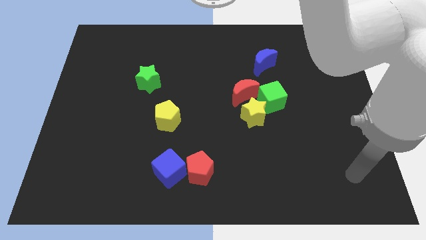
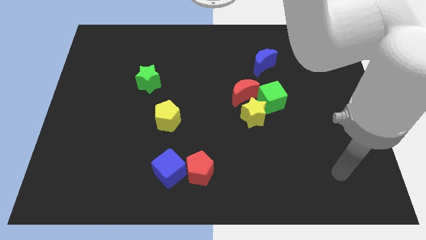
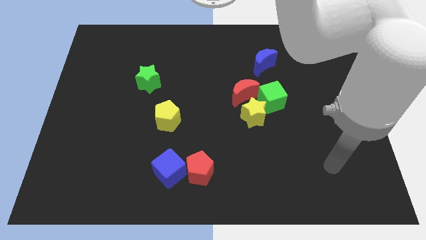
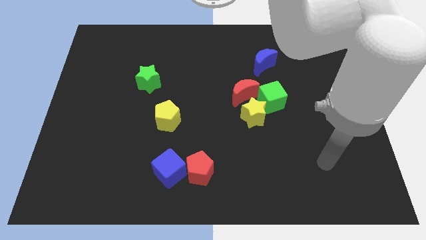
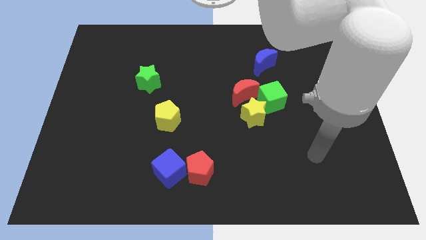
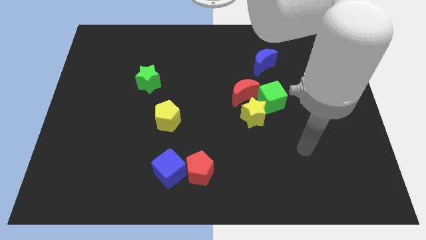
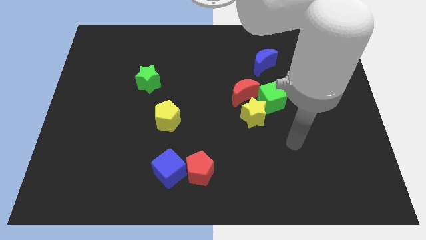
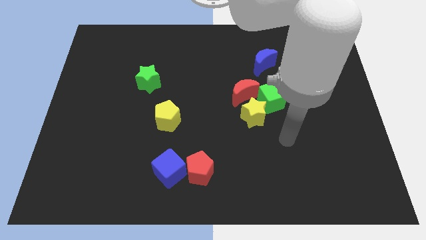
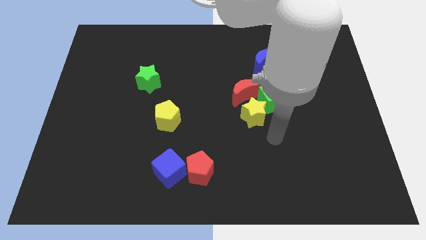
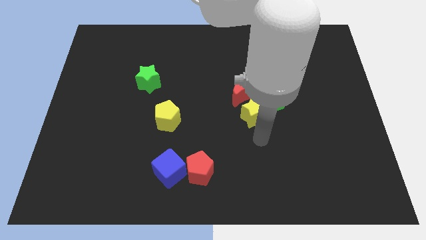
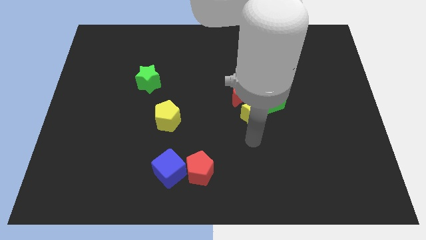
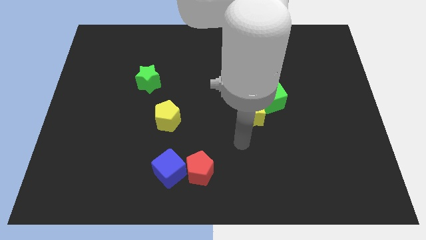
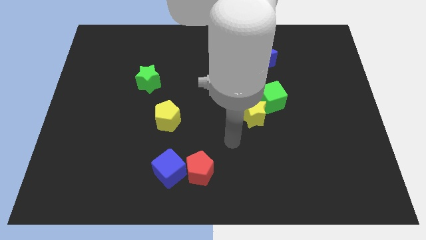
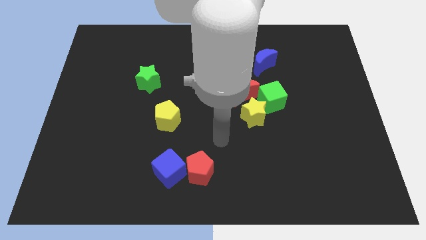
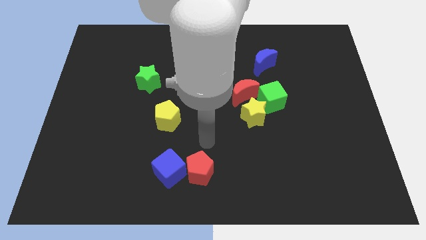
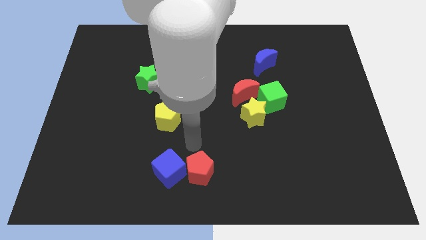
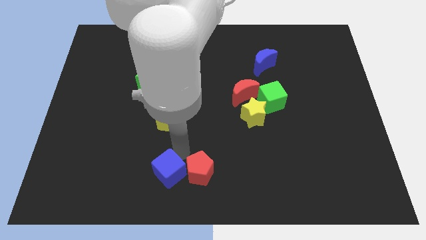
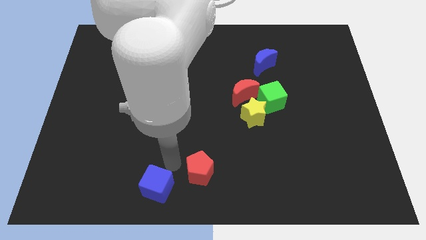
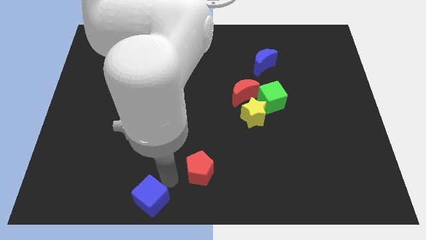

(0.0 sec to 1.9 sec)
pull the red pentagon apart from the blue cube

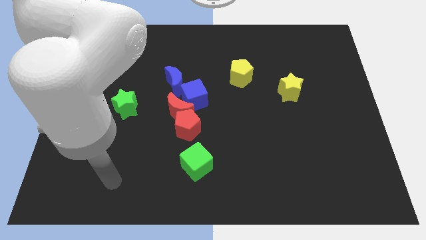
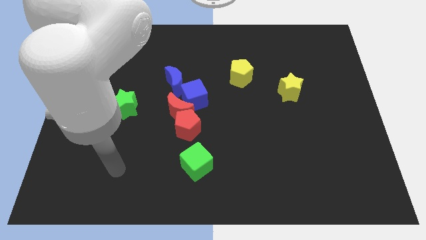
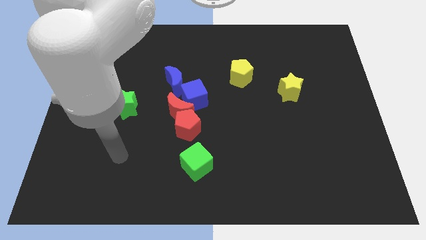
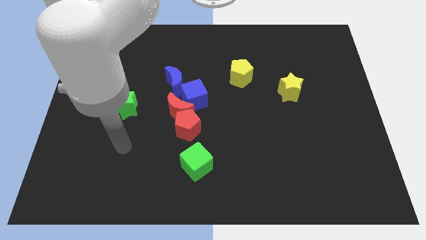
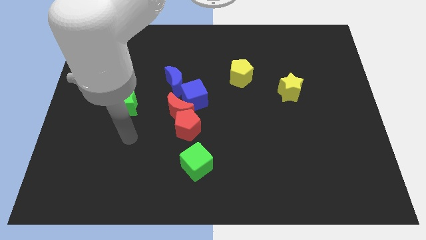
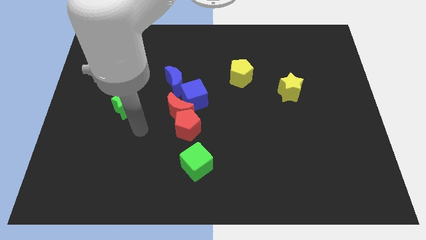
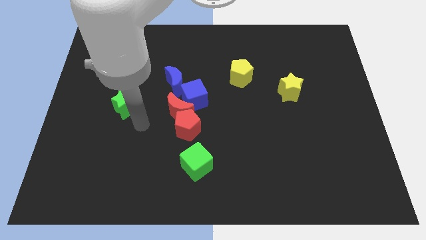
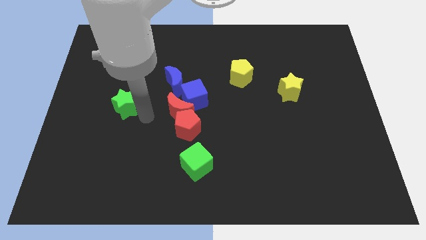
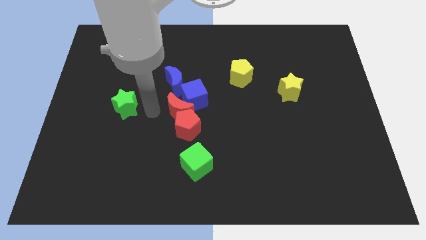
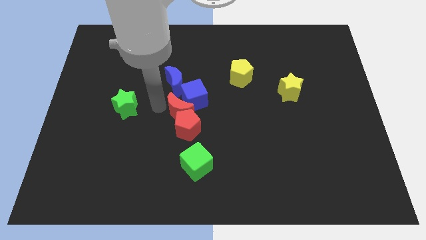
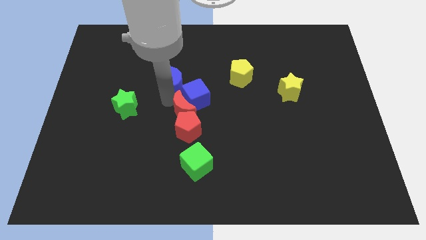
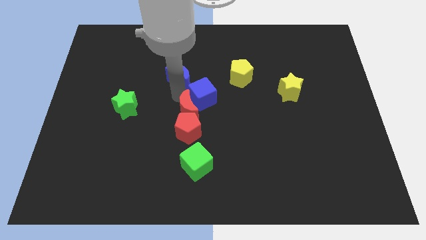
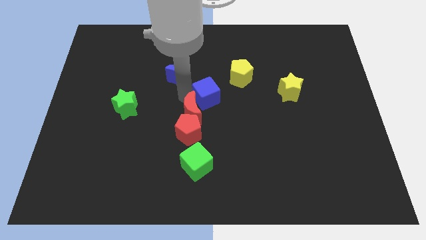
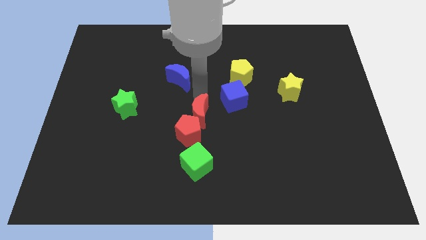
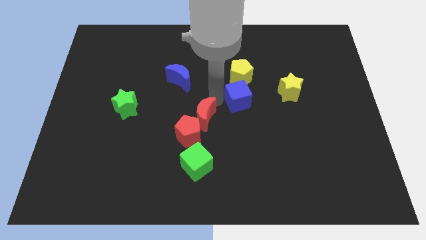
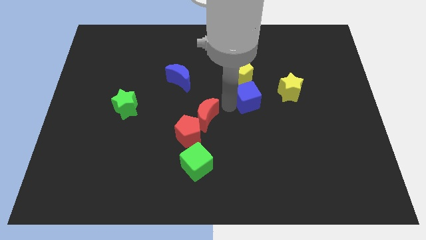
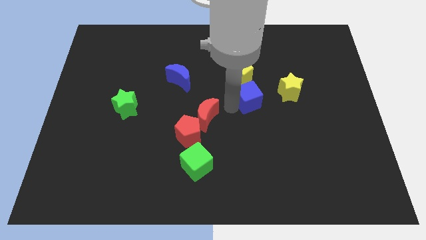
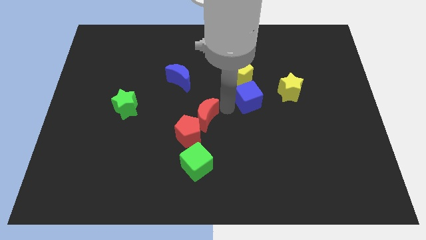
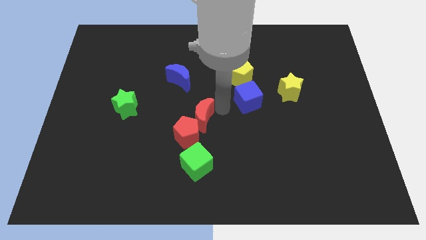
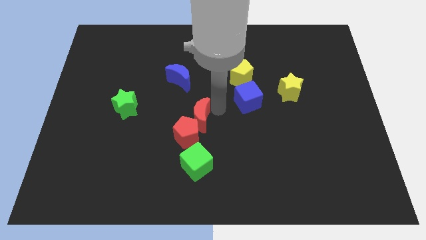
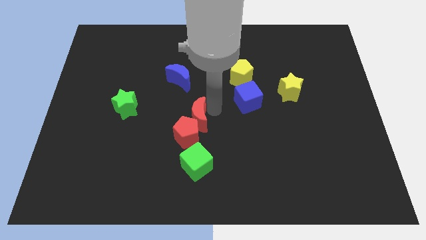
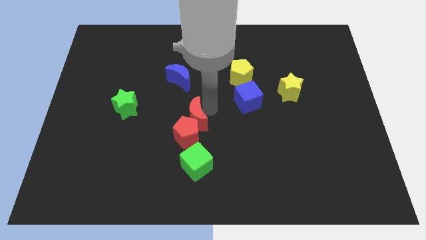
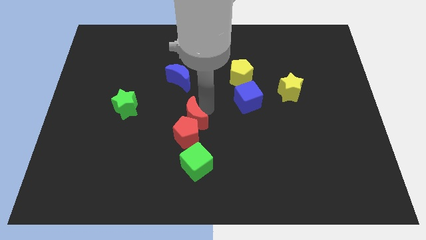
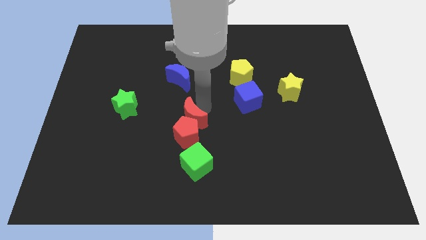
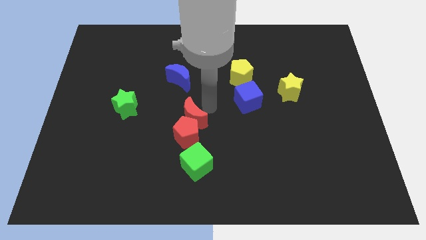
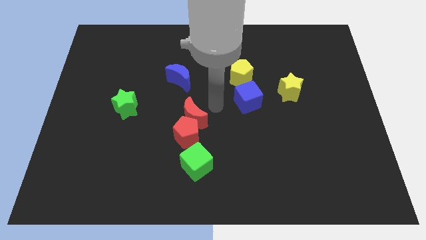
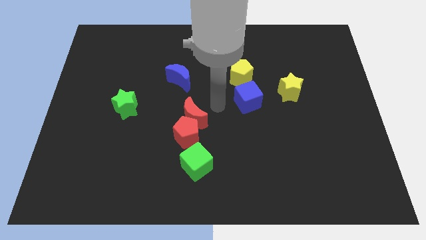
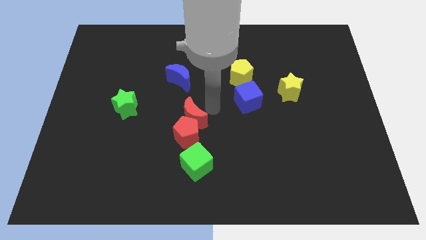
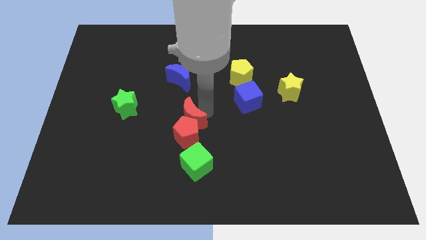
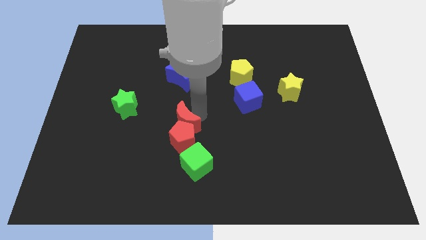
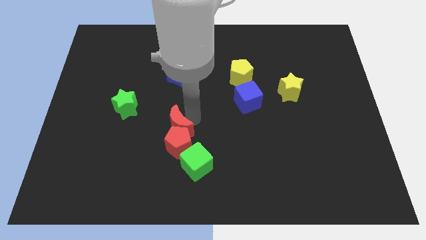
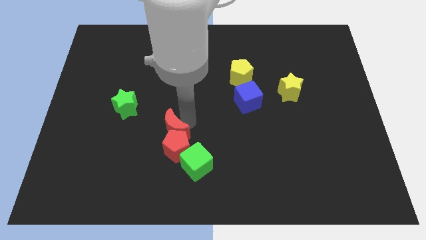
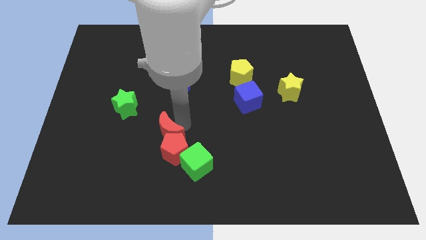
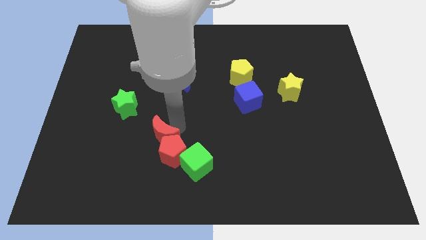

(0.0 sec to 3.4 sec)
pull the red moon apart from the red pentagon, blue cube, and blue moon

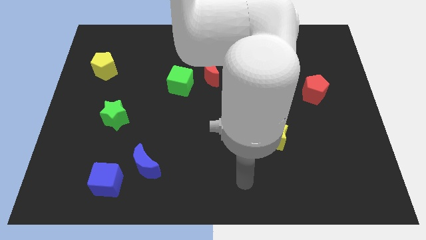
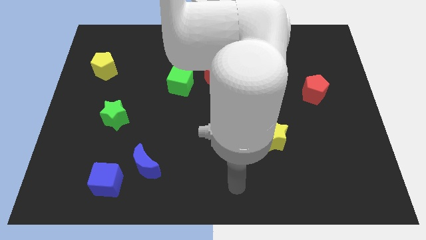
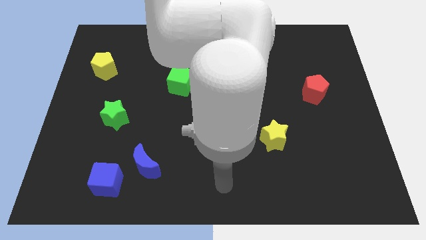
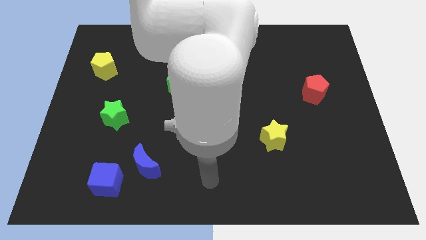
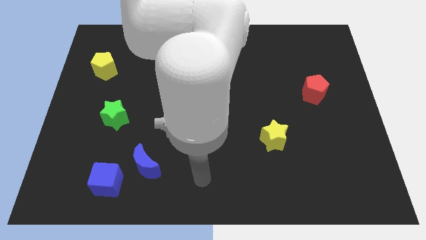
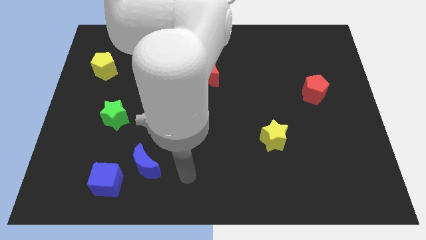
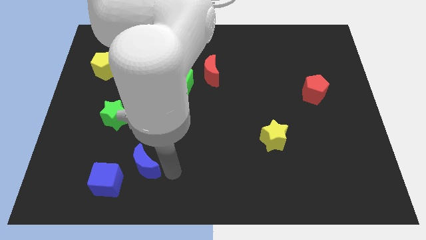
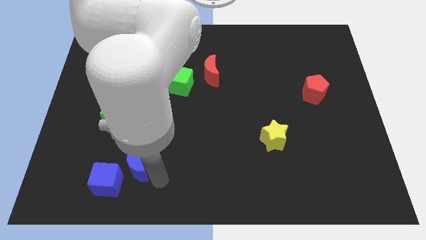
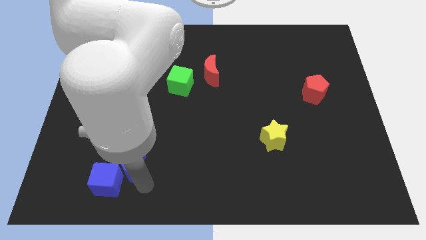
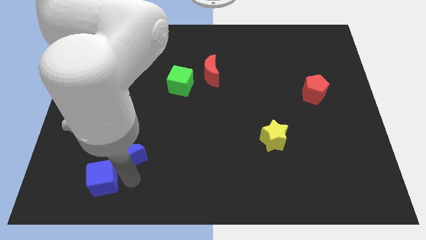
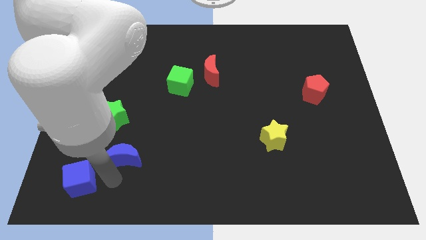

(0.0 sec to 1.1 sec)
move the blue moon away from the blue cube

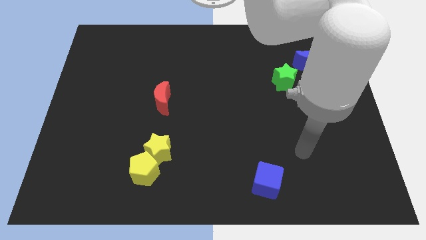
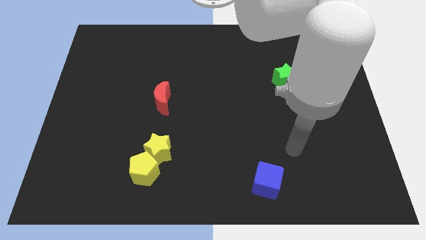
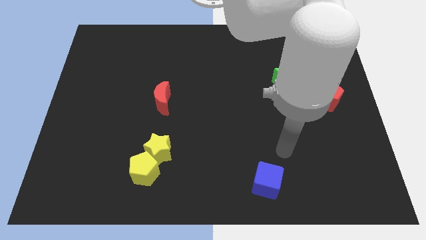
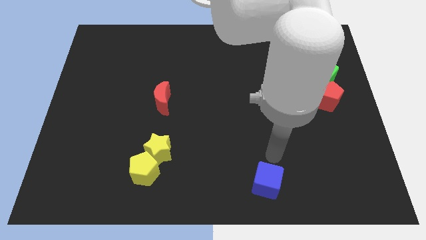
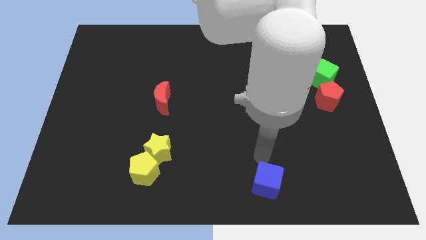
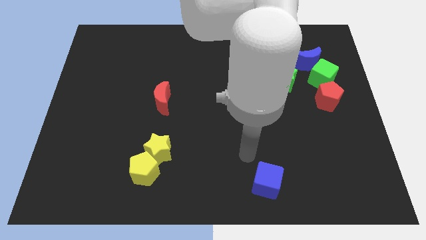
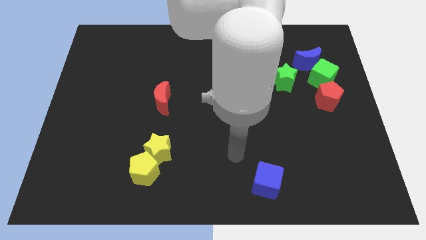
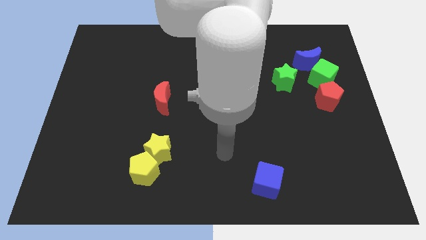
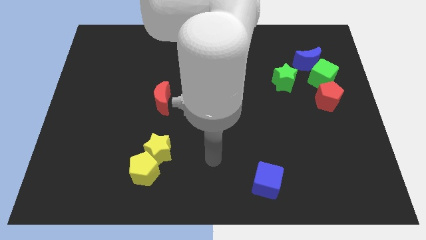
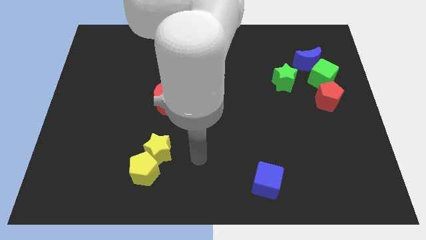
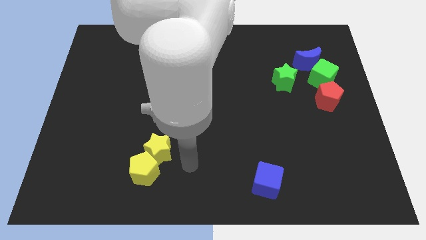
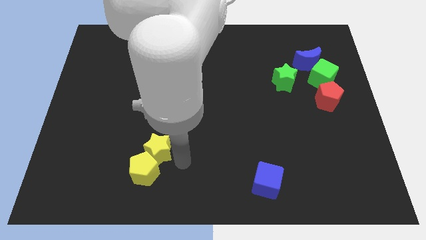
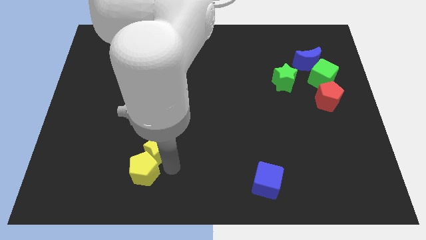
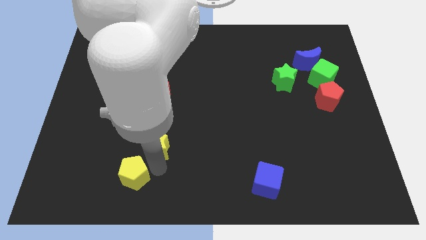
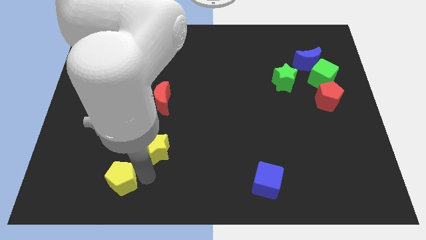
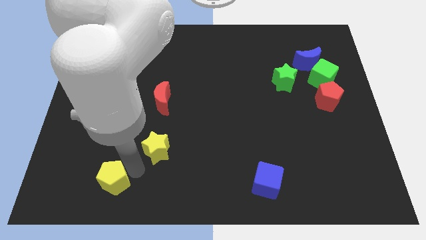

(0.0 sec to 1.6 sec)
separate the yellow star from the yellow pentagon

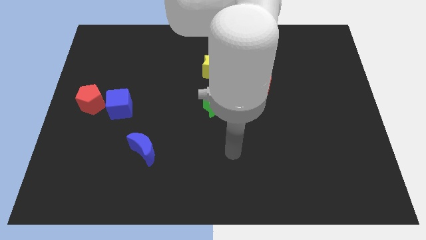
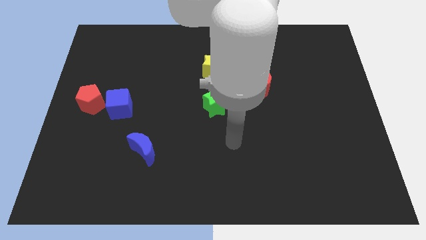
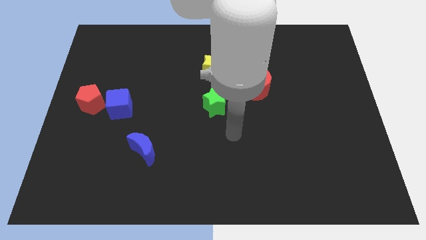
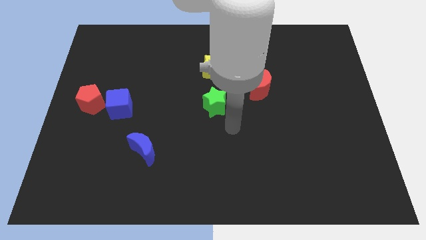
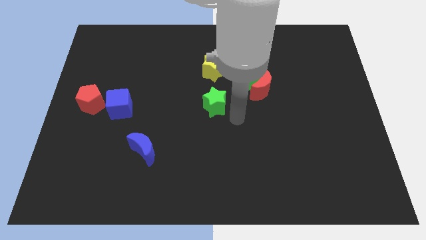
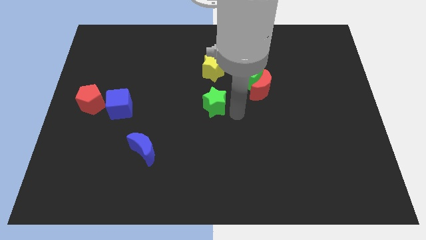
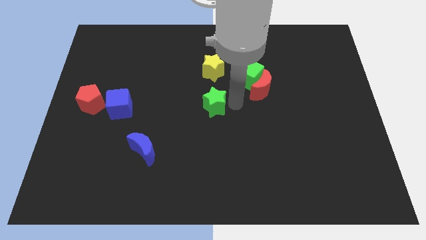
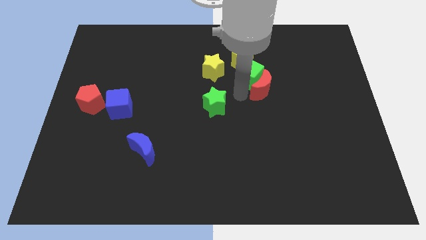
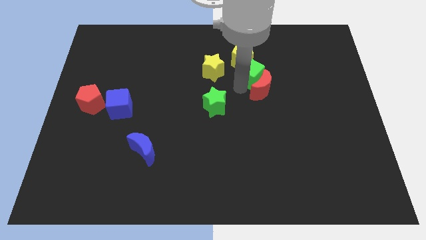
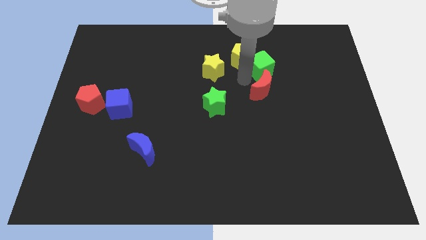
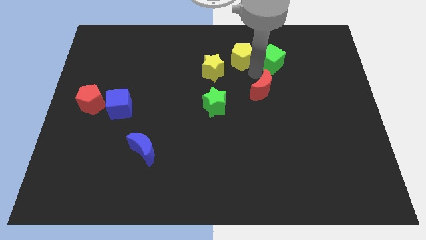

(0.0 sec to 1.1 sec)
separate the red moon from the green cube
